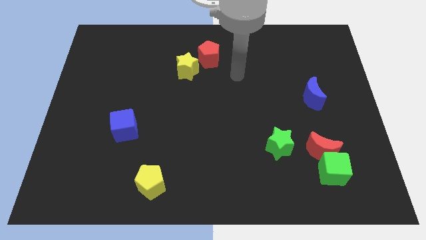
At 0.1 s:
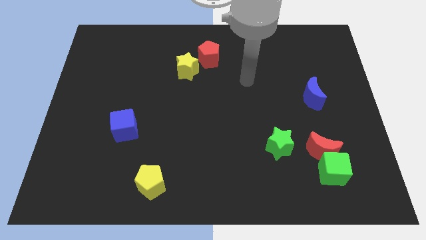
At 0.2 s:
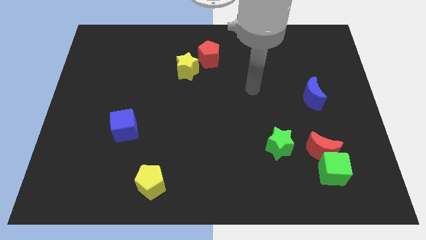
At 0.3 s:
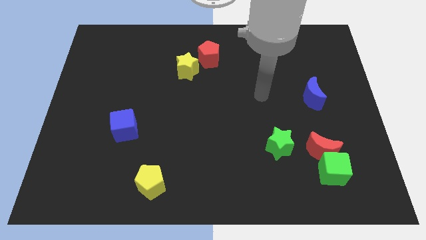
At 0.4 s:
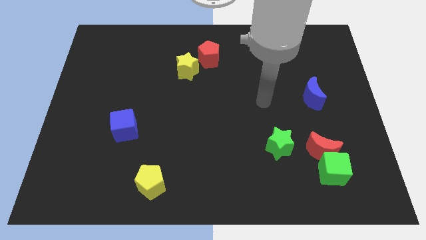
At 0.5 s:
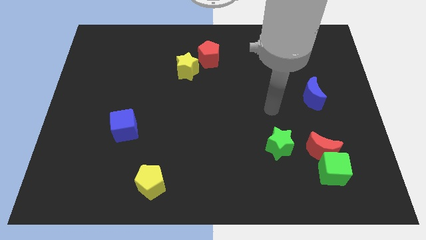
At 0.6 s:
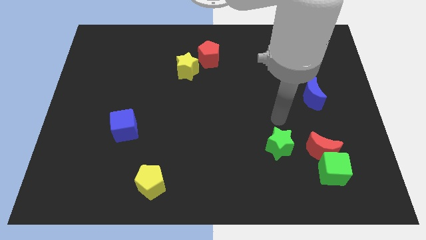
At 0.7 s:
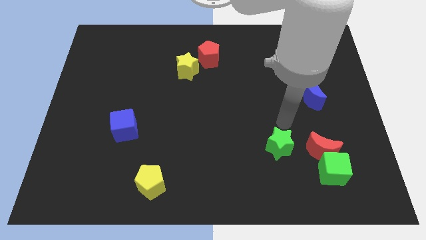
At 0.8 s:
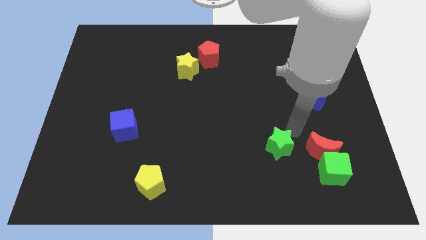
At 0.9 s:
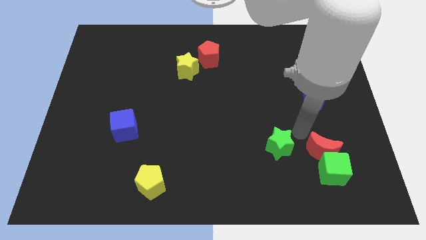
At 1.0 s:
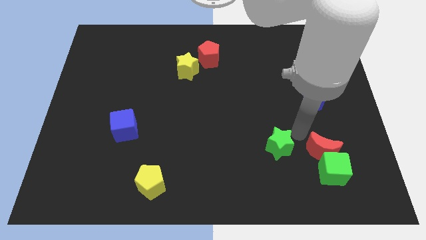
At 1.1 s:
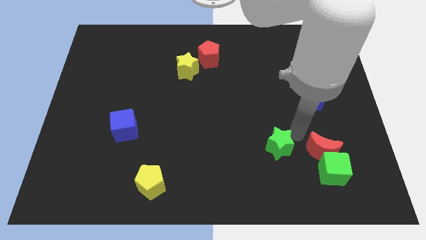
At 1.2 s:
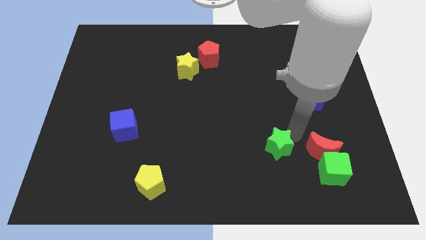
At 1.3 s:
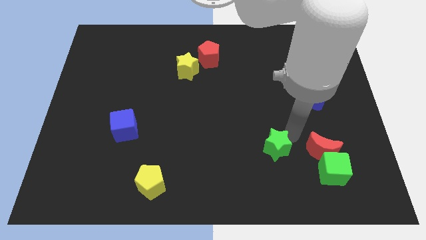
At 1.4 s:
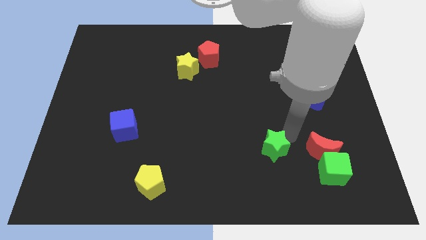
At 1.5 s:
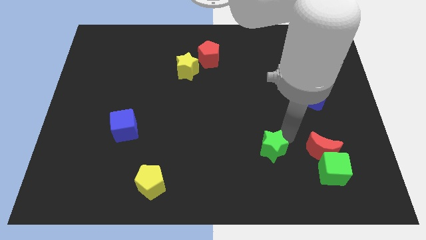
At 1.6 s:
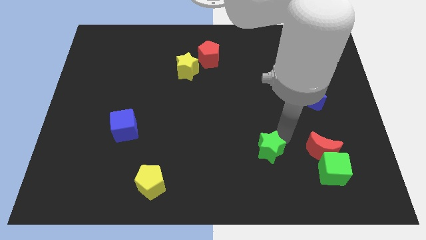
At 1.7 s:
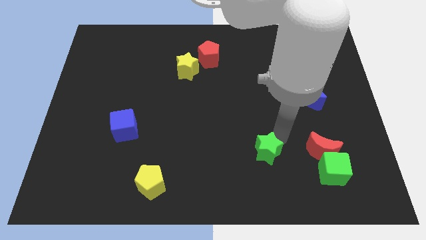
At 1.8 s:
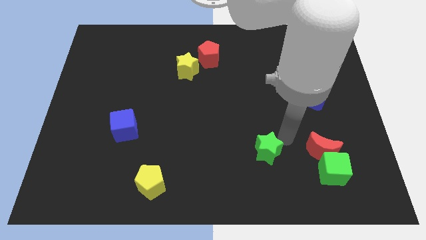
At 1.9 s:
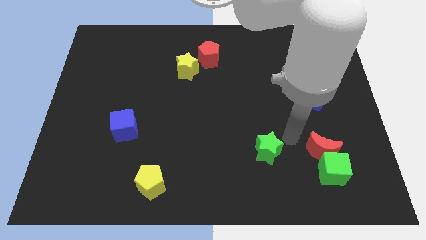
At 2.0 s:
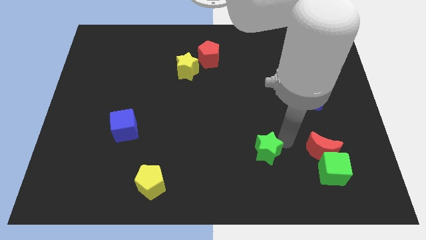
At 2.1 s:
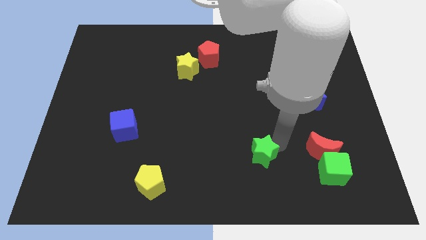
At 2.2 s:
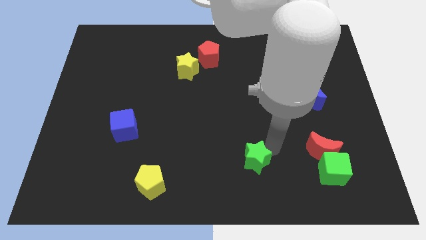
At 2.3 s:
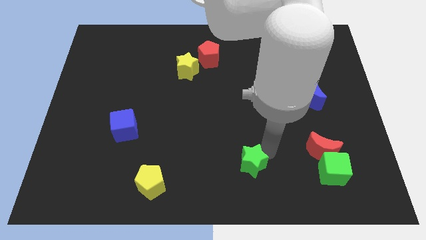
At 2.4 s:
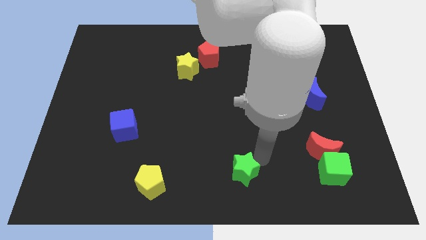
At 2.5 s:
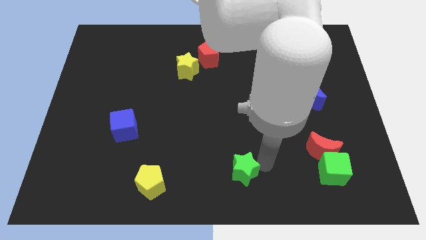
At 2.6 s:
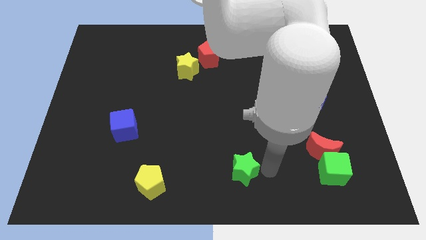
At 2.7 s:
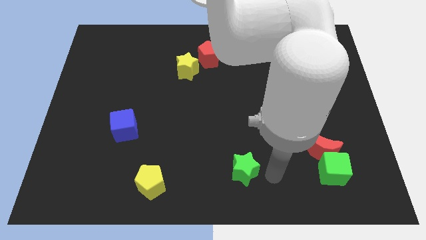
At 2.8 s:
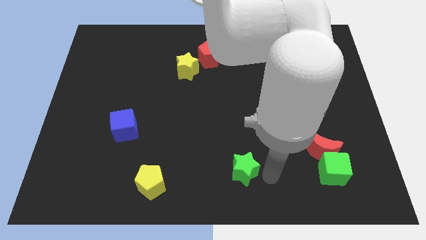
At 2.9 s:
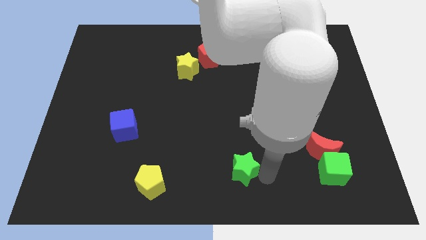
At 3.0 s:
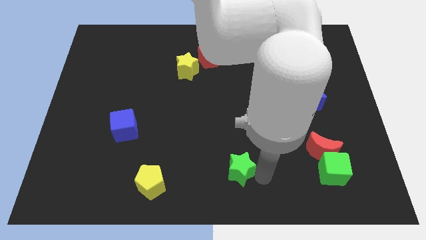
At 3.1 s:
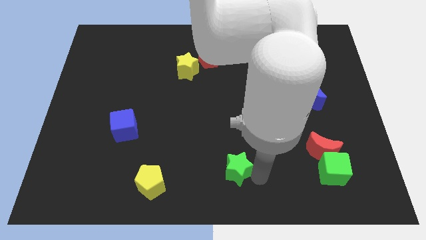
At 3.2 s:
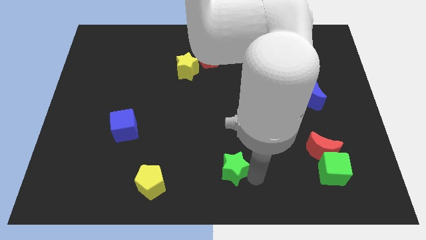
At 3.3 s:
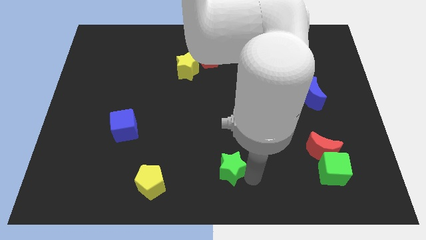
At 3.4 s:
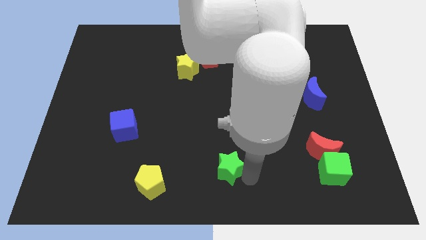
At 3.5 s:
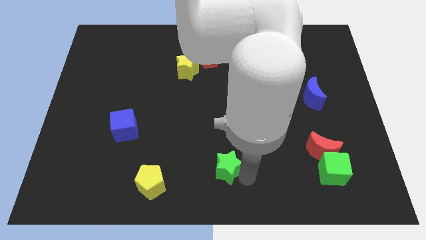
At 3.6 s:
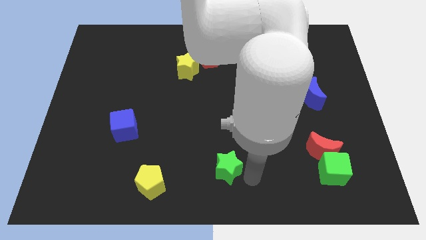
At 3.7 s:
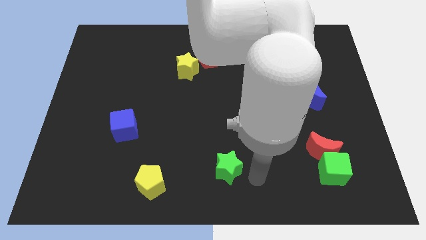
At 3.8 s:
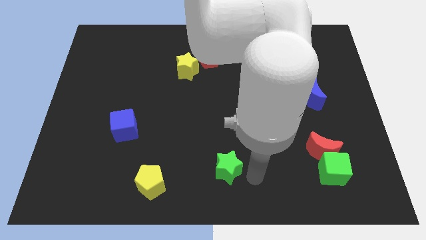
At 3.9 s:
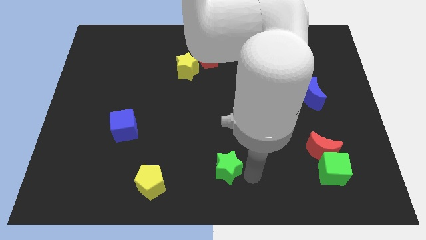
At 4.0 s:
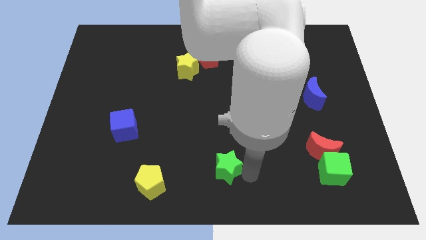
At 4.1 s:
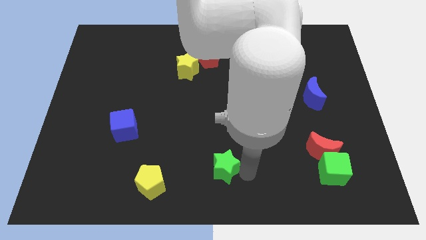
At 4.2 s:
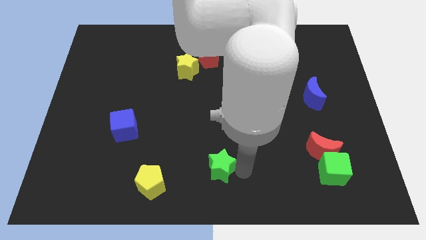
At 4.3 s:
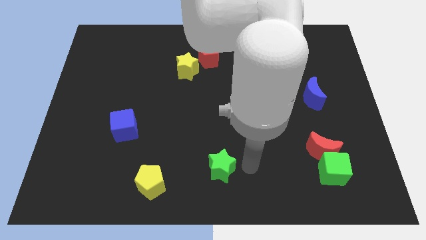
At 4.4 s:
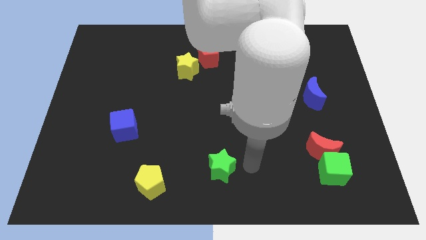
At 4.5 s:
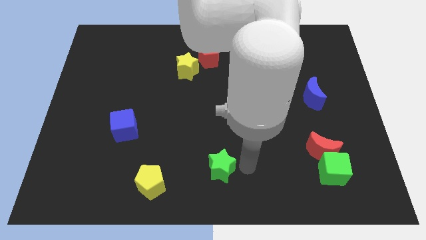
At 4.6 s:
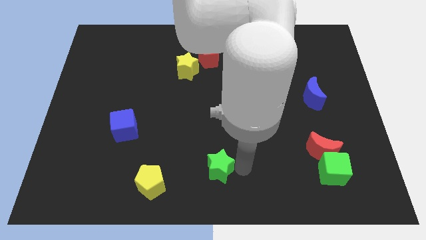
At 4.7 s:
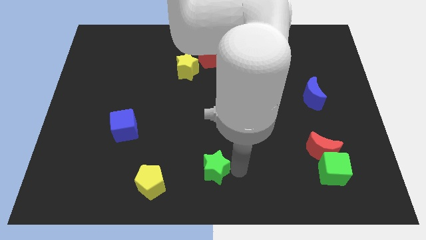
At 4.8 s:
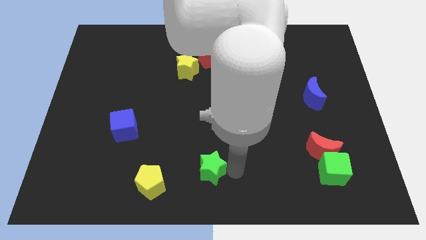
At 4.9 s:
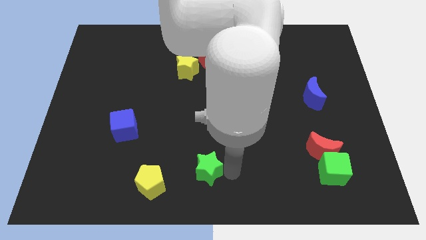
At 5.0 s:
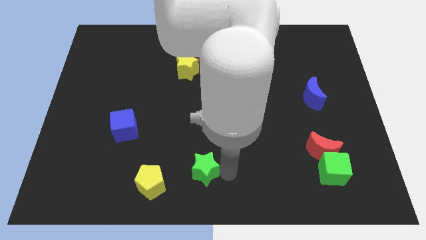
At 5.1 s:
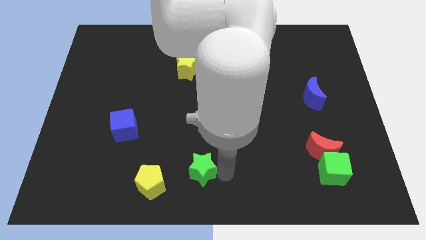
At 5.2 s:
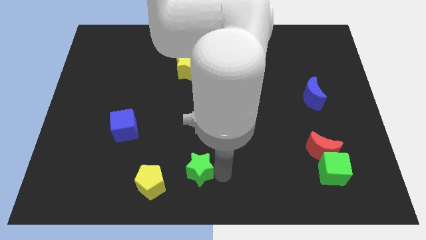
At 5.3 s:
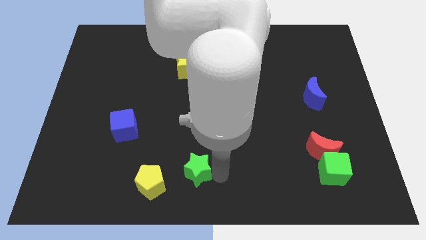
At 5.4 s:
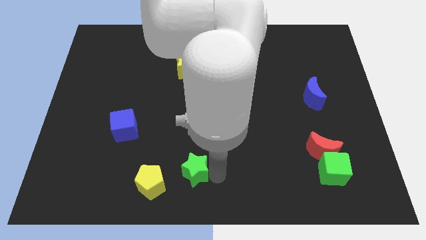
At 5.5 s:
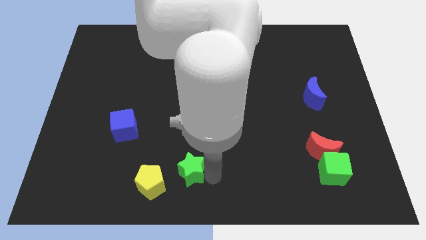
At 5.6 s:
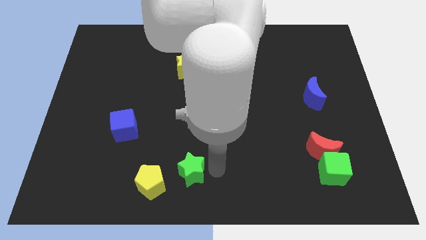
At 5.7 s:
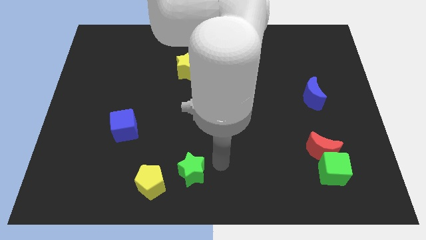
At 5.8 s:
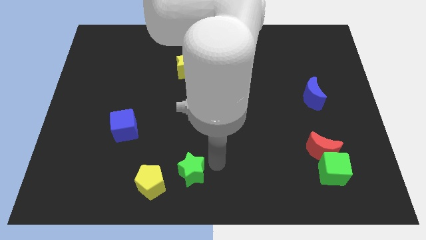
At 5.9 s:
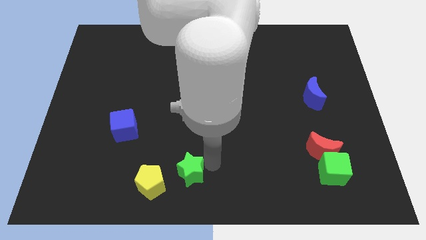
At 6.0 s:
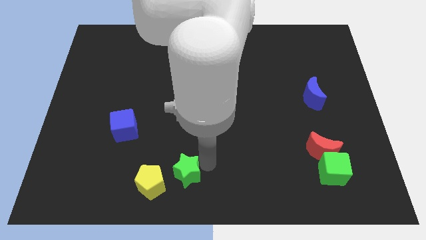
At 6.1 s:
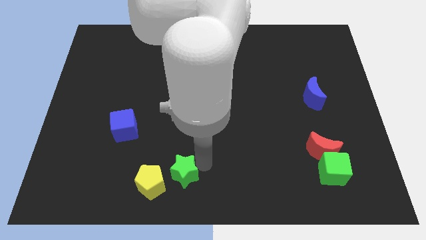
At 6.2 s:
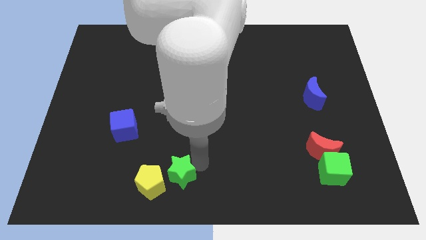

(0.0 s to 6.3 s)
push the green star next to the yellow pentagon

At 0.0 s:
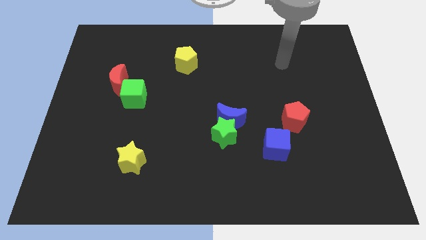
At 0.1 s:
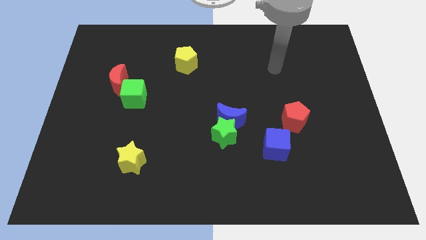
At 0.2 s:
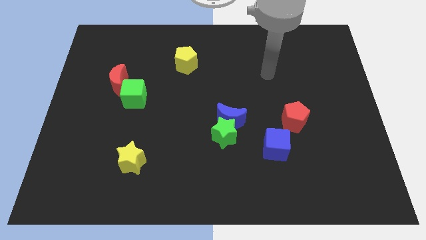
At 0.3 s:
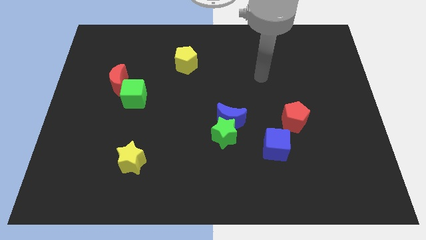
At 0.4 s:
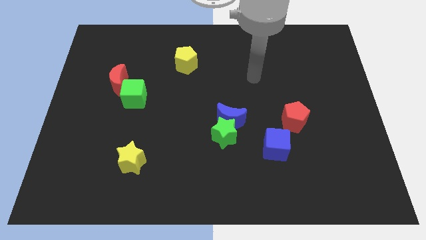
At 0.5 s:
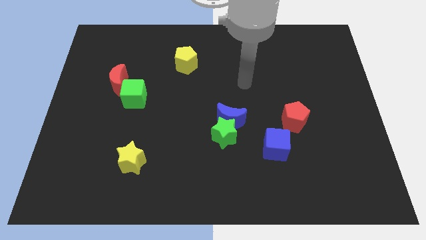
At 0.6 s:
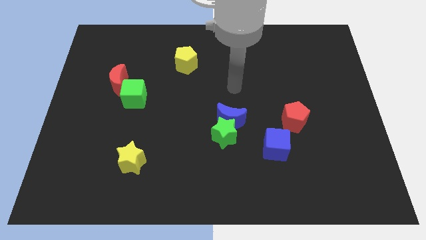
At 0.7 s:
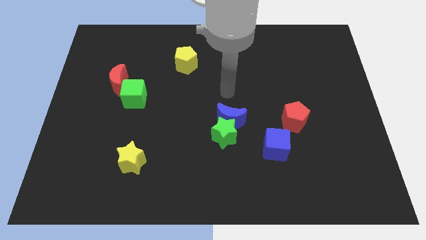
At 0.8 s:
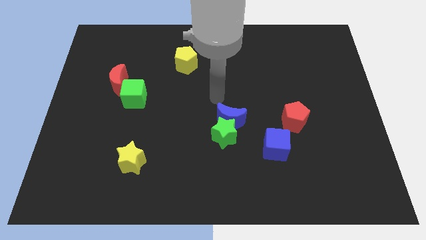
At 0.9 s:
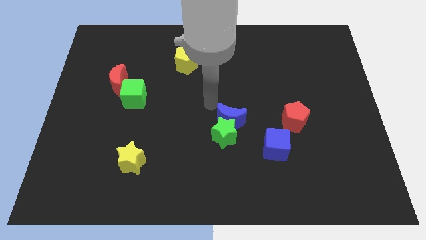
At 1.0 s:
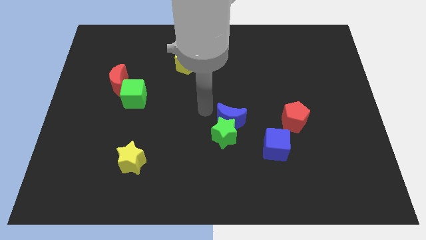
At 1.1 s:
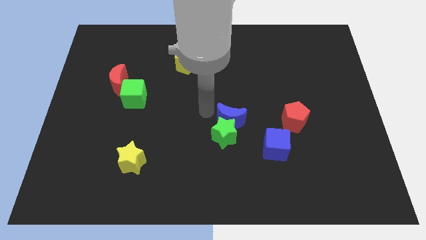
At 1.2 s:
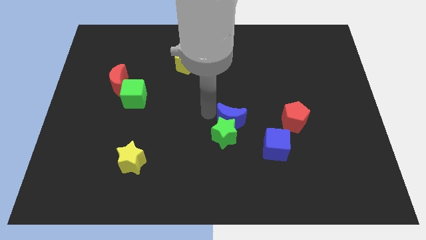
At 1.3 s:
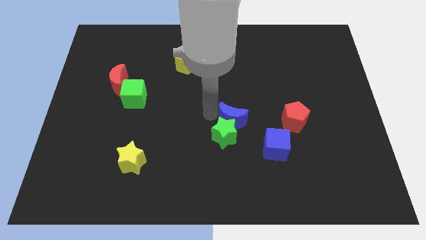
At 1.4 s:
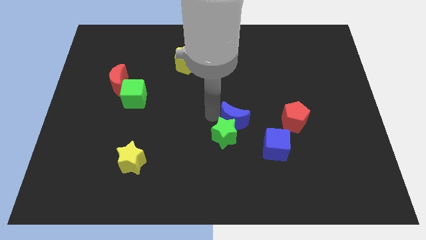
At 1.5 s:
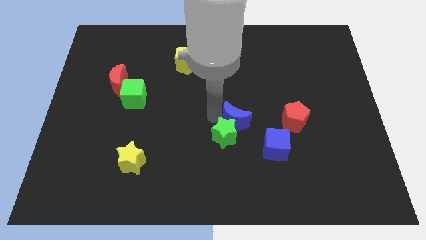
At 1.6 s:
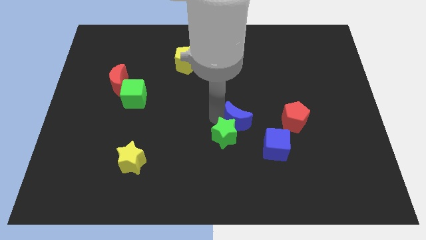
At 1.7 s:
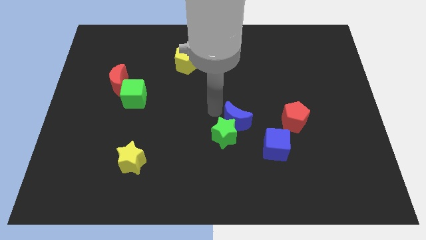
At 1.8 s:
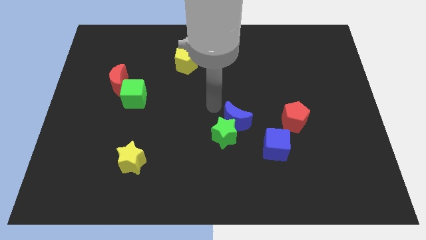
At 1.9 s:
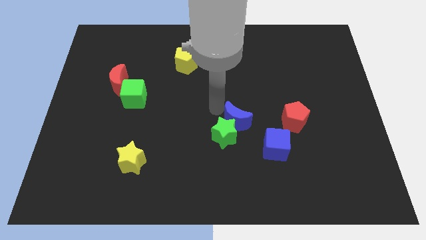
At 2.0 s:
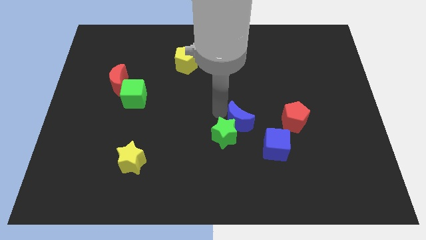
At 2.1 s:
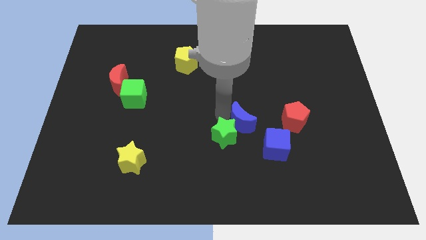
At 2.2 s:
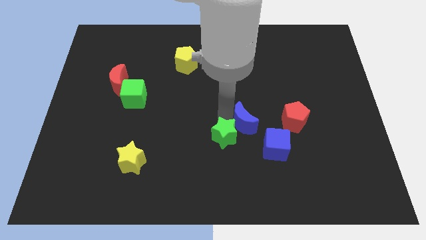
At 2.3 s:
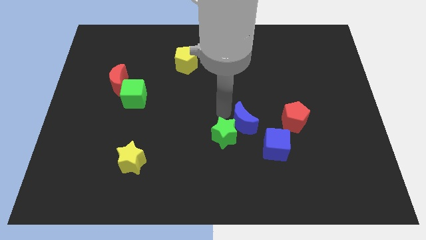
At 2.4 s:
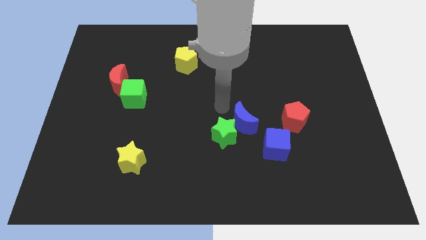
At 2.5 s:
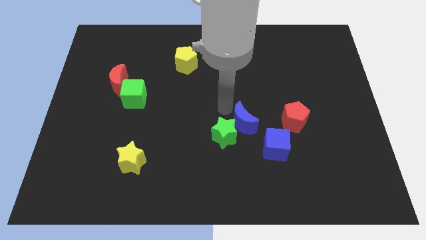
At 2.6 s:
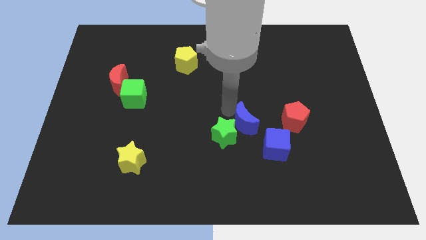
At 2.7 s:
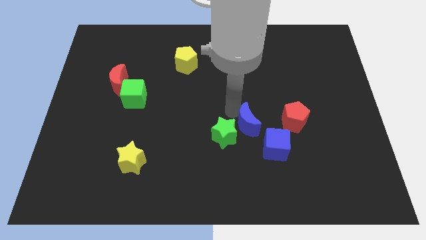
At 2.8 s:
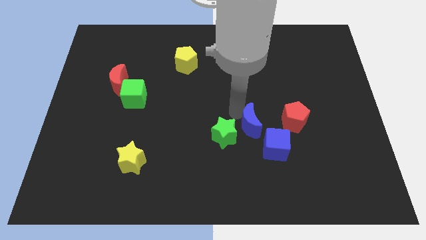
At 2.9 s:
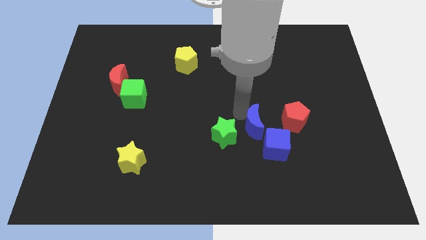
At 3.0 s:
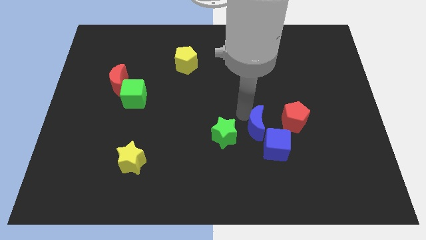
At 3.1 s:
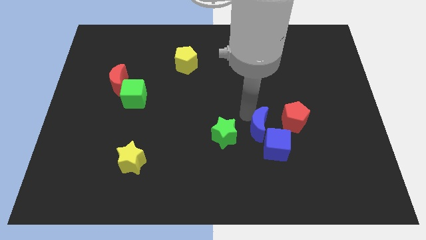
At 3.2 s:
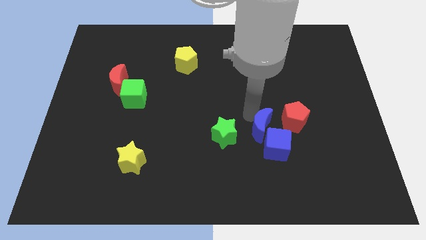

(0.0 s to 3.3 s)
push the blue moon close to the blue cube
